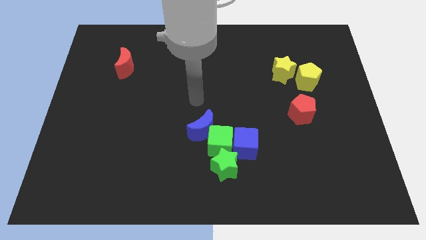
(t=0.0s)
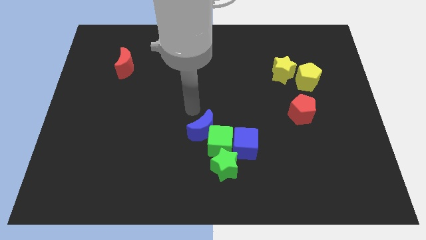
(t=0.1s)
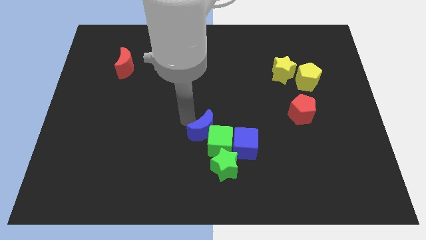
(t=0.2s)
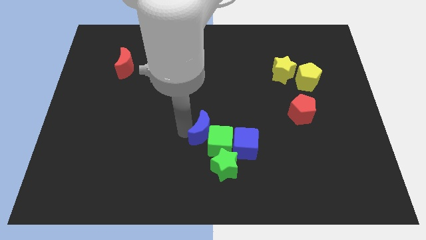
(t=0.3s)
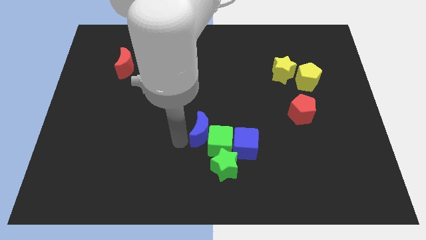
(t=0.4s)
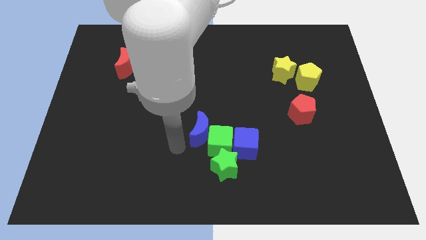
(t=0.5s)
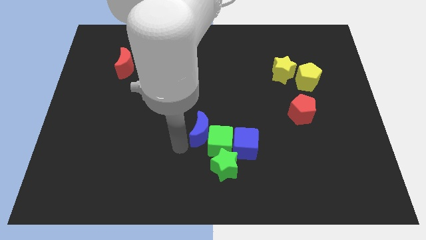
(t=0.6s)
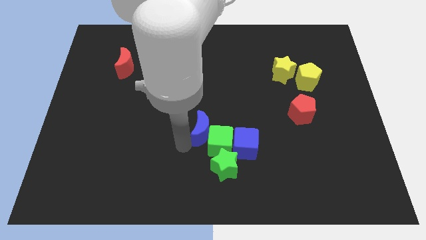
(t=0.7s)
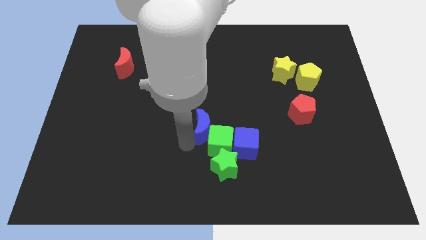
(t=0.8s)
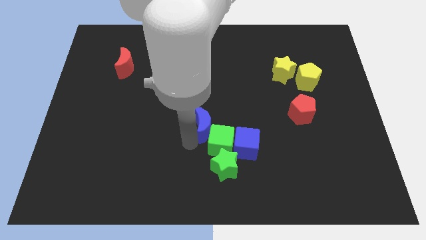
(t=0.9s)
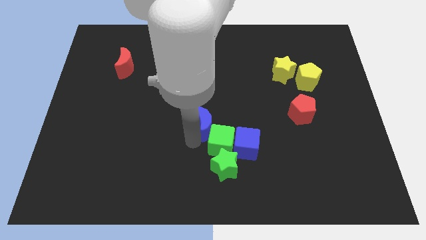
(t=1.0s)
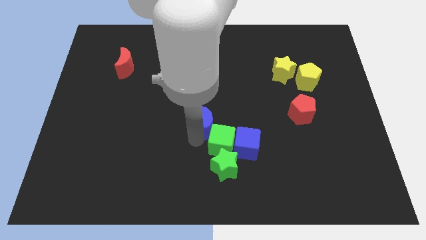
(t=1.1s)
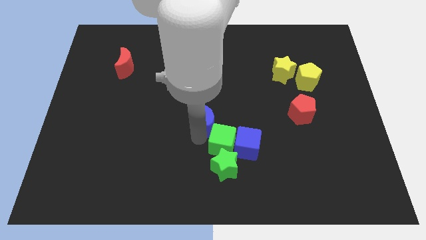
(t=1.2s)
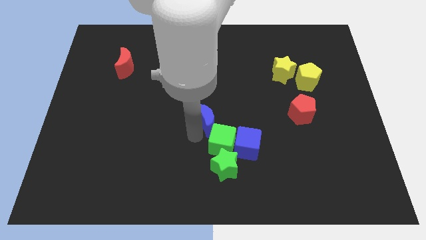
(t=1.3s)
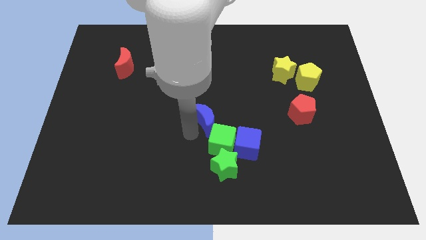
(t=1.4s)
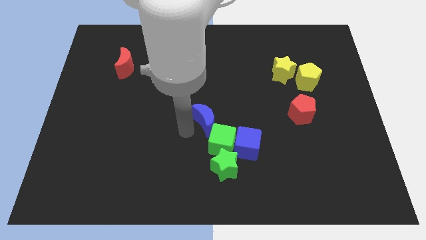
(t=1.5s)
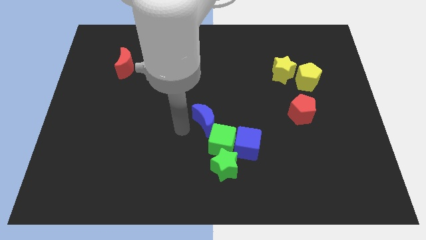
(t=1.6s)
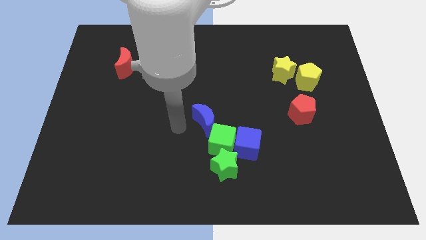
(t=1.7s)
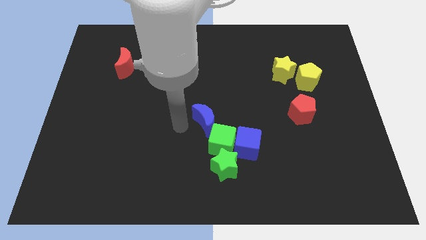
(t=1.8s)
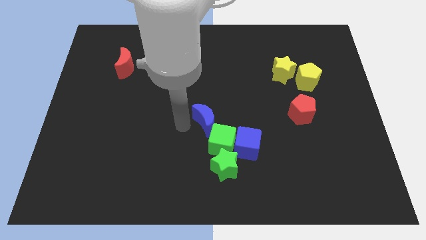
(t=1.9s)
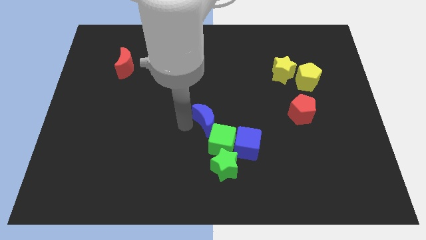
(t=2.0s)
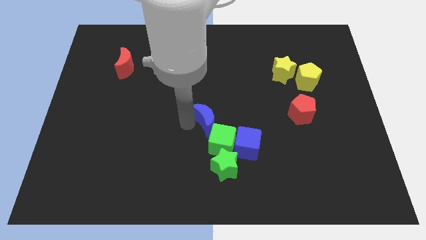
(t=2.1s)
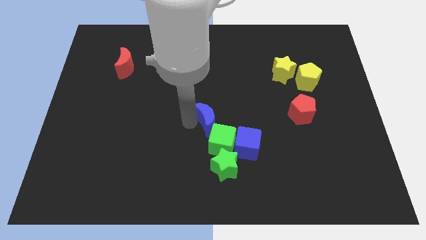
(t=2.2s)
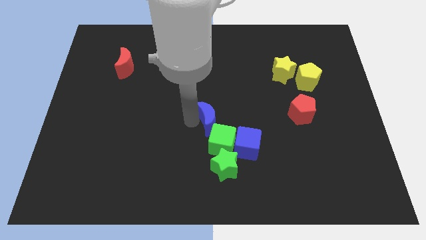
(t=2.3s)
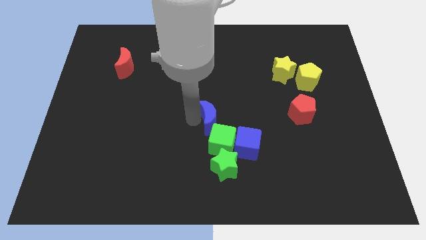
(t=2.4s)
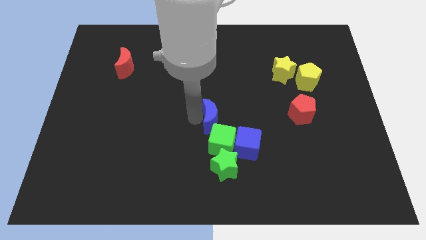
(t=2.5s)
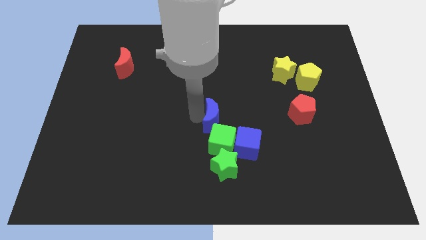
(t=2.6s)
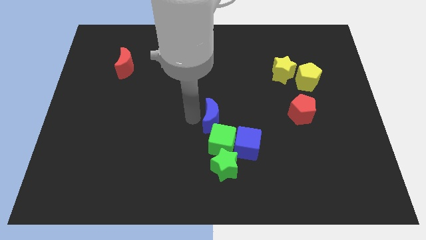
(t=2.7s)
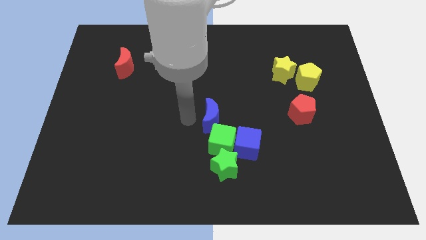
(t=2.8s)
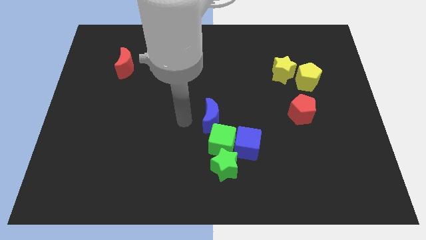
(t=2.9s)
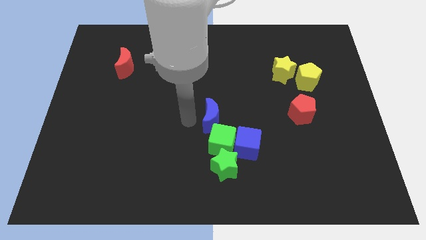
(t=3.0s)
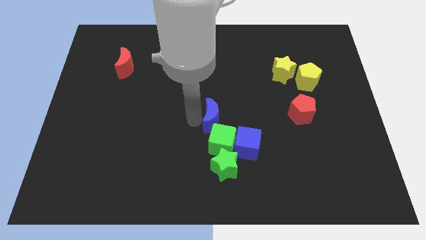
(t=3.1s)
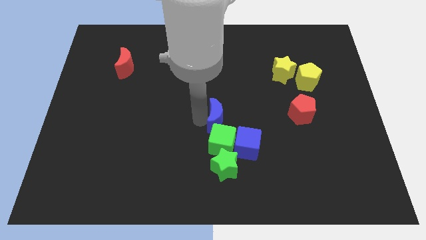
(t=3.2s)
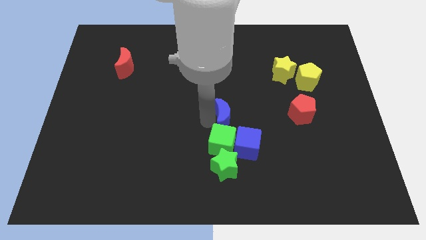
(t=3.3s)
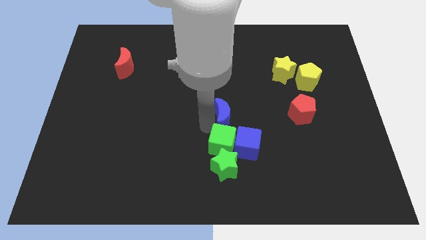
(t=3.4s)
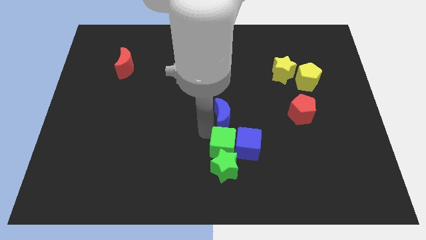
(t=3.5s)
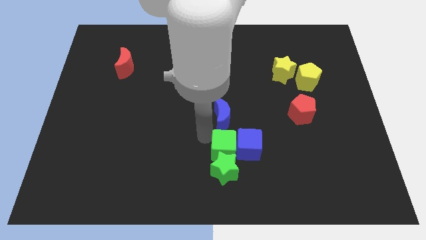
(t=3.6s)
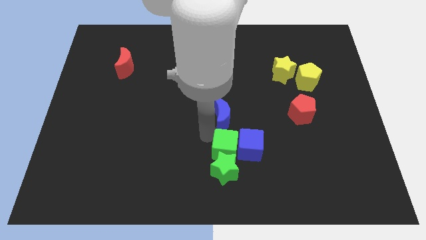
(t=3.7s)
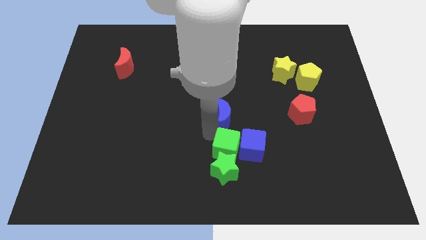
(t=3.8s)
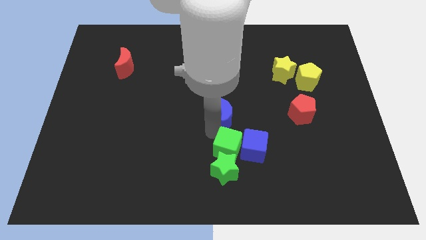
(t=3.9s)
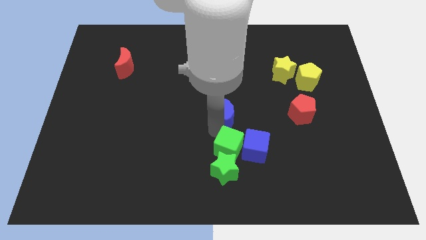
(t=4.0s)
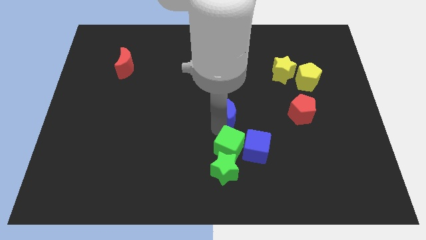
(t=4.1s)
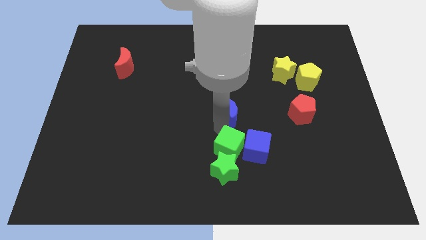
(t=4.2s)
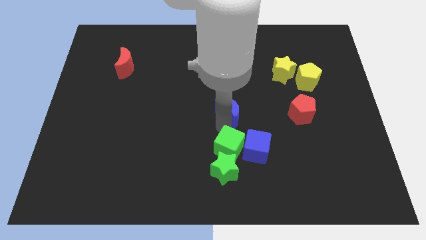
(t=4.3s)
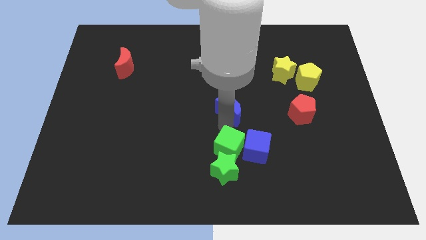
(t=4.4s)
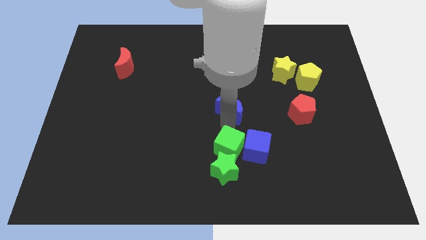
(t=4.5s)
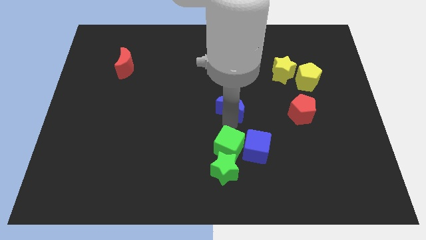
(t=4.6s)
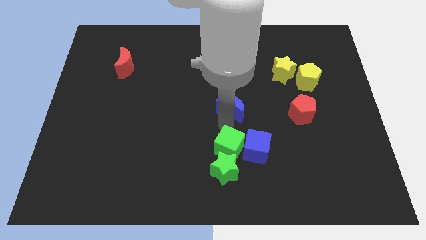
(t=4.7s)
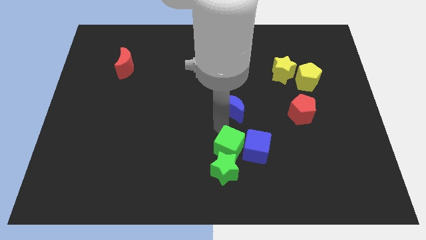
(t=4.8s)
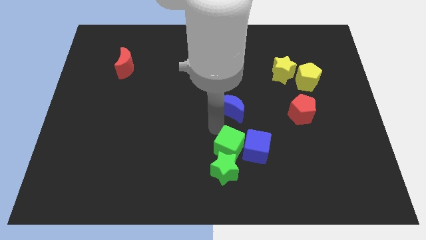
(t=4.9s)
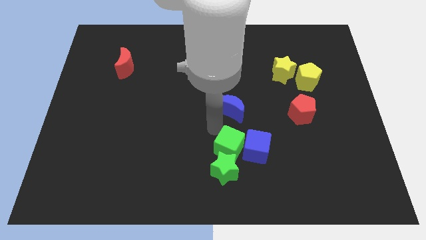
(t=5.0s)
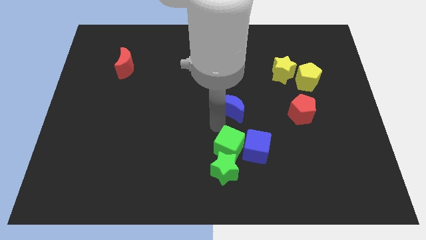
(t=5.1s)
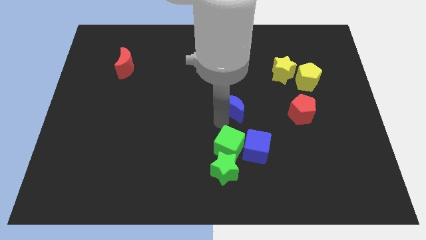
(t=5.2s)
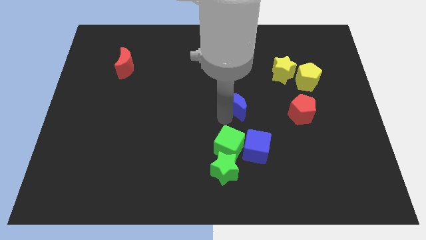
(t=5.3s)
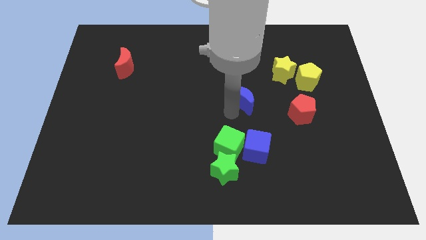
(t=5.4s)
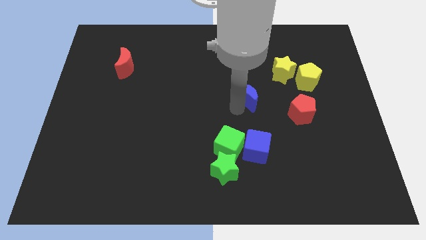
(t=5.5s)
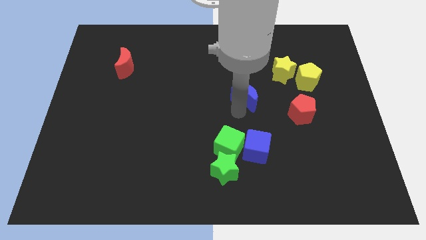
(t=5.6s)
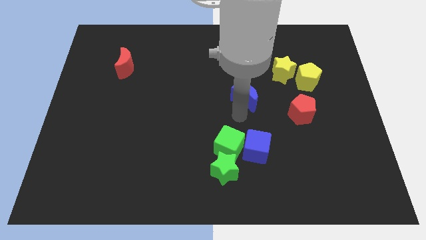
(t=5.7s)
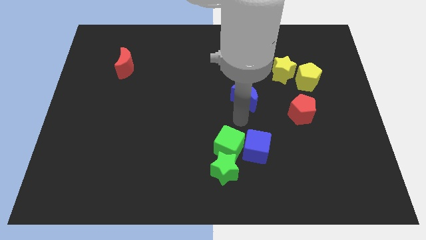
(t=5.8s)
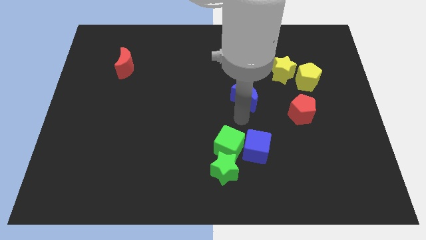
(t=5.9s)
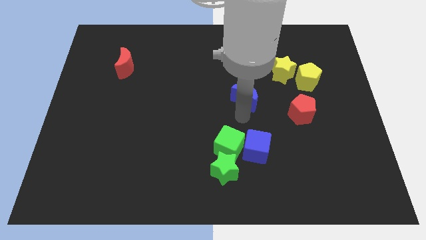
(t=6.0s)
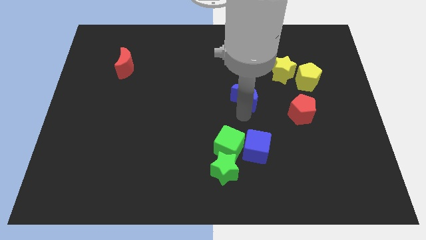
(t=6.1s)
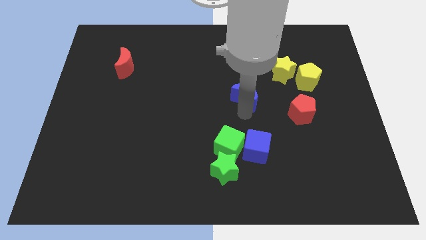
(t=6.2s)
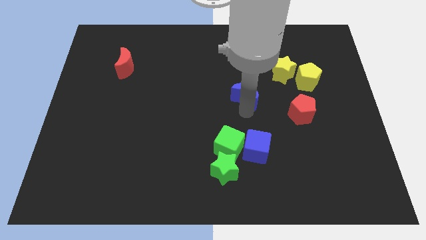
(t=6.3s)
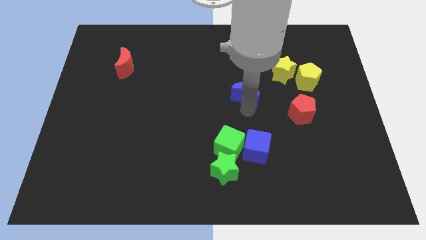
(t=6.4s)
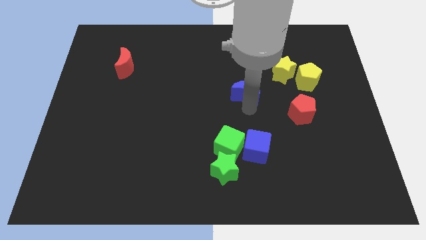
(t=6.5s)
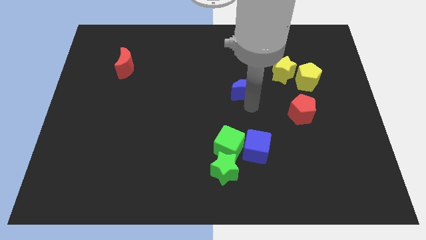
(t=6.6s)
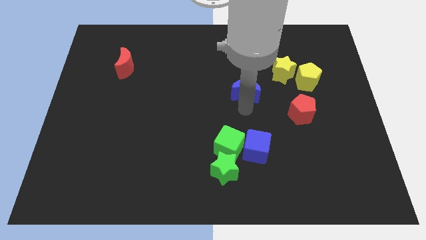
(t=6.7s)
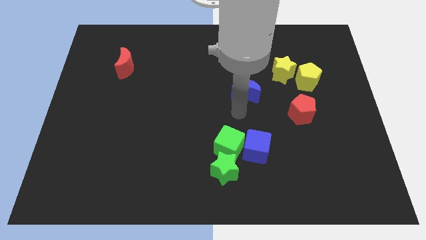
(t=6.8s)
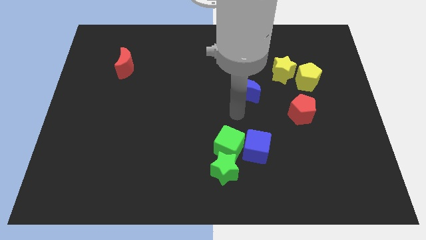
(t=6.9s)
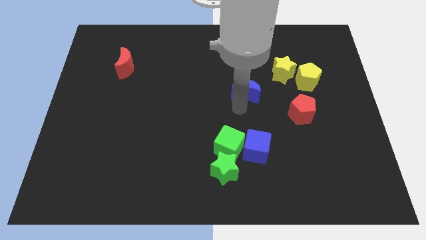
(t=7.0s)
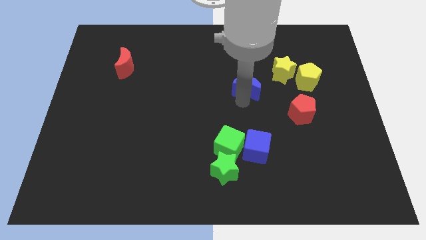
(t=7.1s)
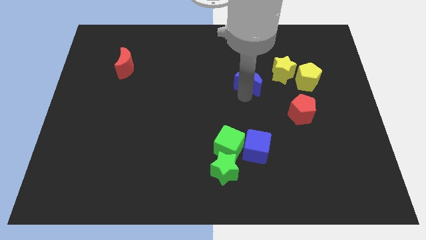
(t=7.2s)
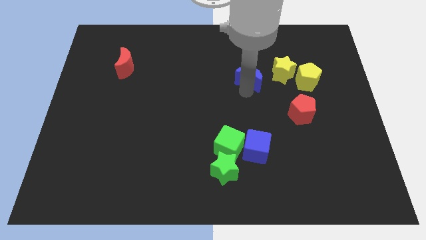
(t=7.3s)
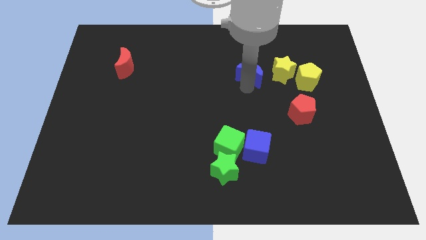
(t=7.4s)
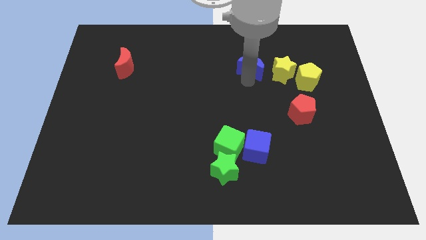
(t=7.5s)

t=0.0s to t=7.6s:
slide the blue moon upwards and to the right
